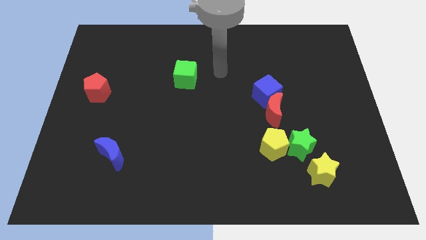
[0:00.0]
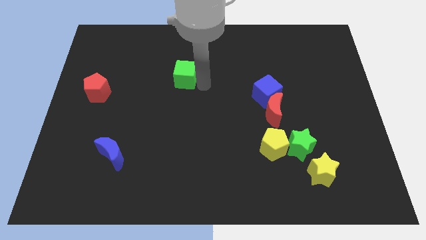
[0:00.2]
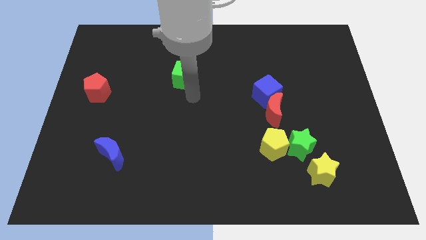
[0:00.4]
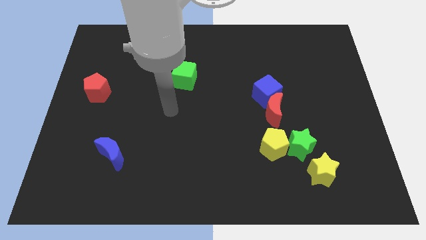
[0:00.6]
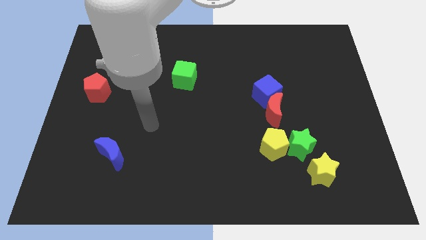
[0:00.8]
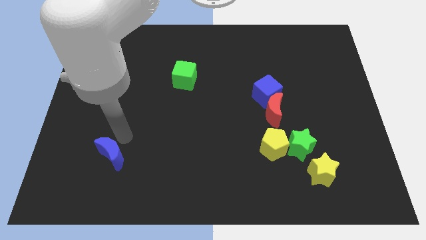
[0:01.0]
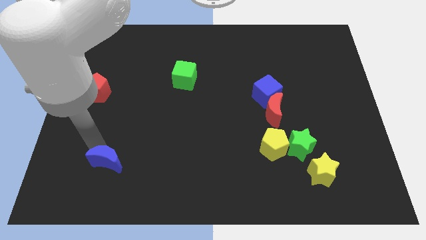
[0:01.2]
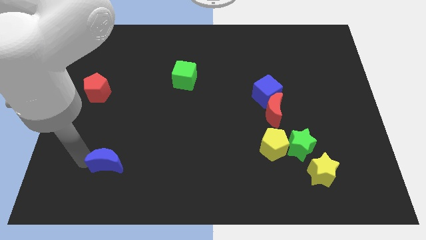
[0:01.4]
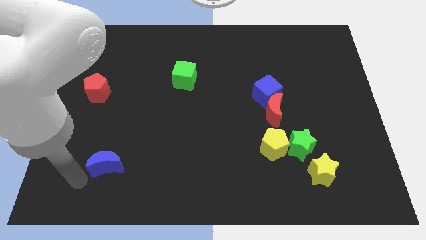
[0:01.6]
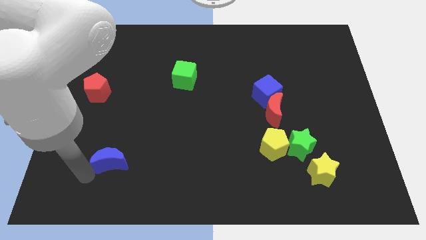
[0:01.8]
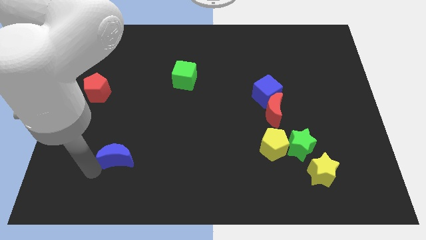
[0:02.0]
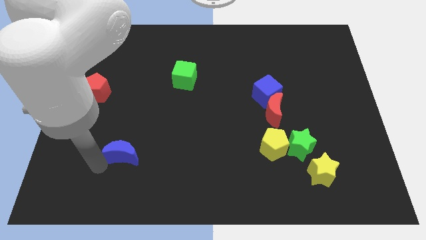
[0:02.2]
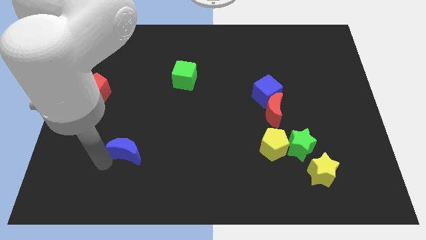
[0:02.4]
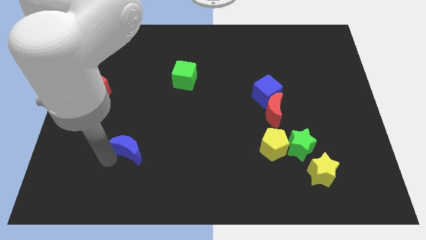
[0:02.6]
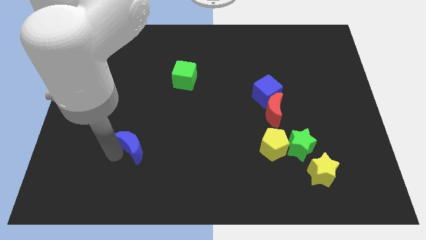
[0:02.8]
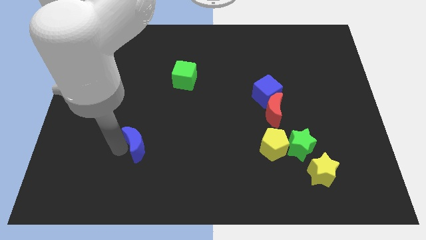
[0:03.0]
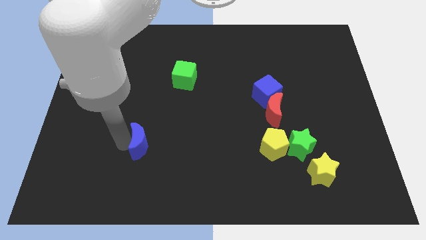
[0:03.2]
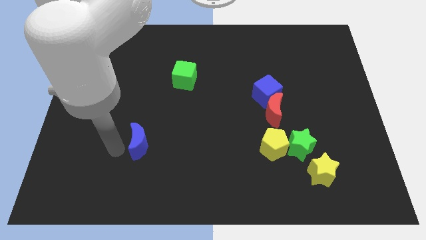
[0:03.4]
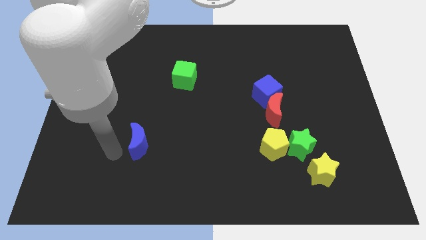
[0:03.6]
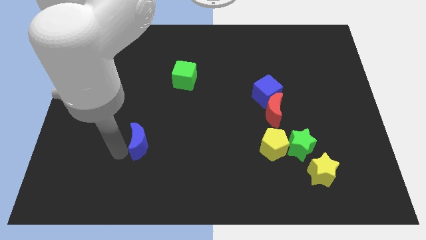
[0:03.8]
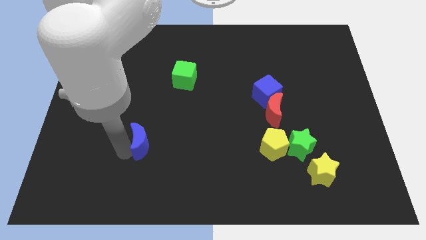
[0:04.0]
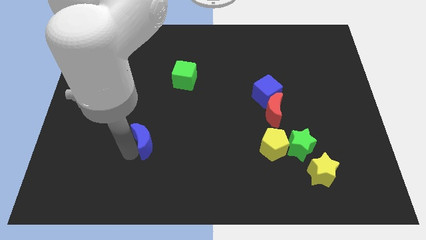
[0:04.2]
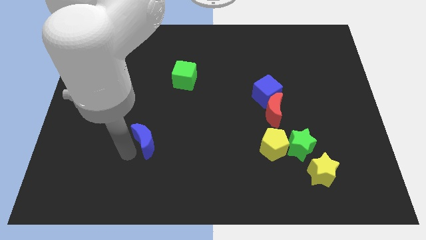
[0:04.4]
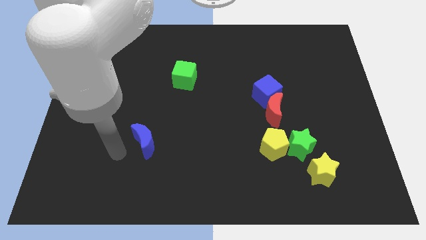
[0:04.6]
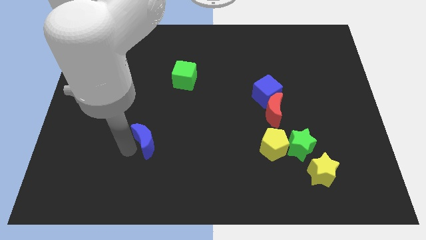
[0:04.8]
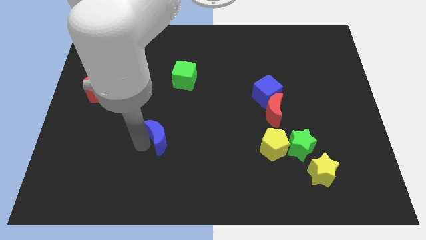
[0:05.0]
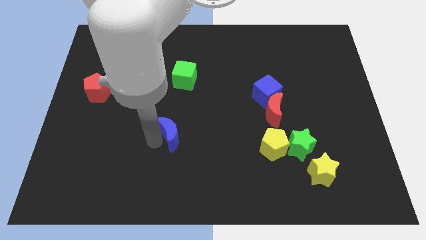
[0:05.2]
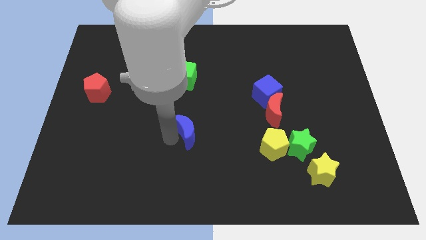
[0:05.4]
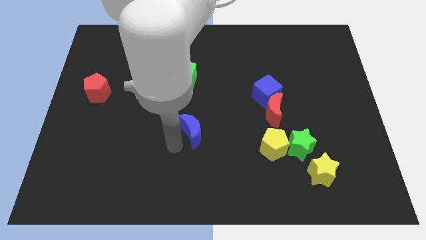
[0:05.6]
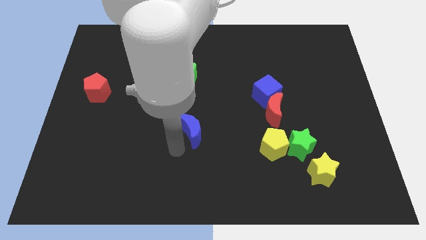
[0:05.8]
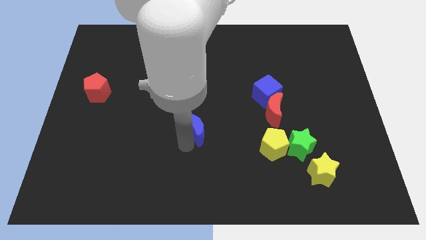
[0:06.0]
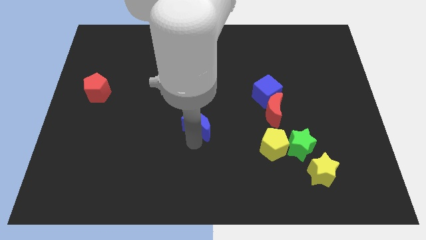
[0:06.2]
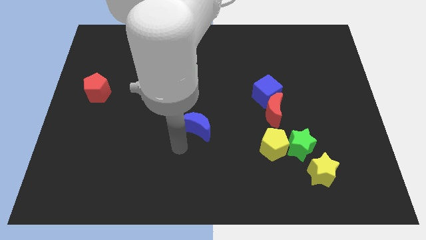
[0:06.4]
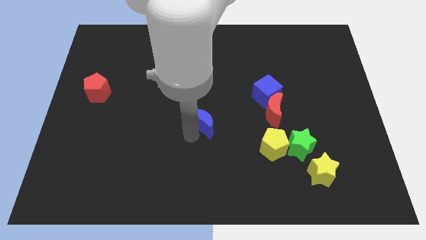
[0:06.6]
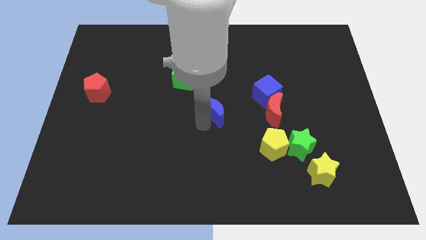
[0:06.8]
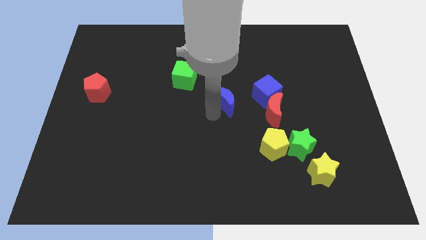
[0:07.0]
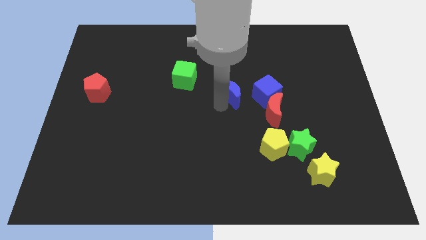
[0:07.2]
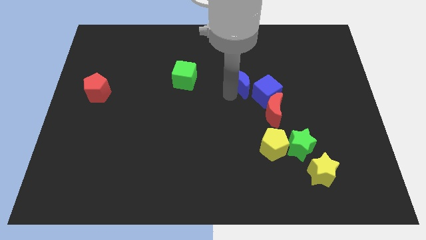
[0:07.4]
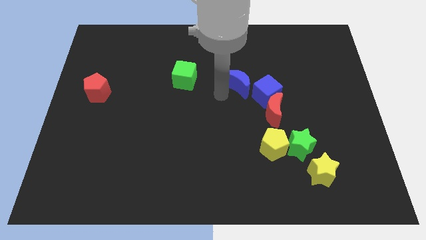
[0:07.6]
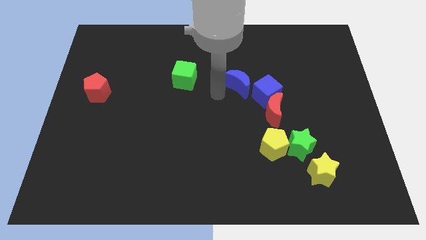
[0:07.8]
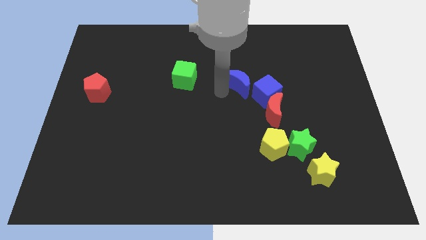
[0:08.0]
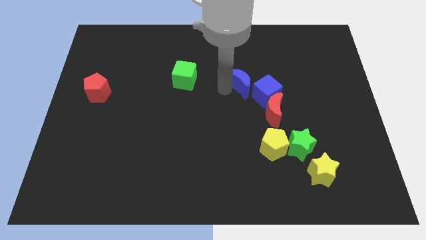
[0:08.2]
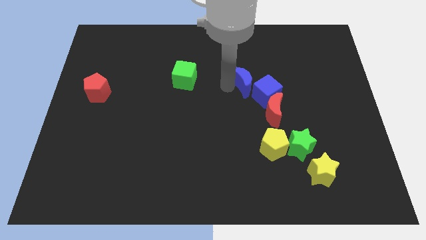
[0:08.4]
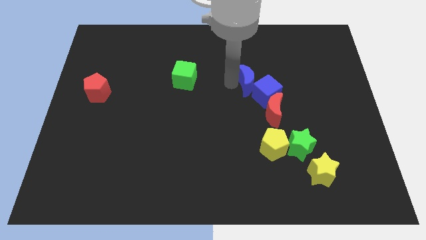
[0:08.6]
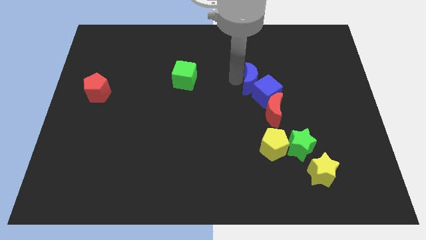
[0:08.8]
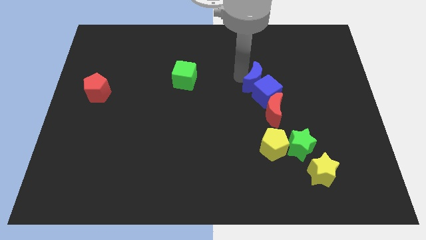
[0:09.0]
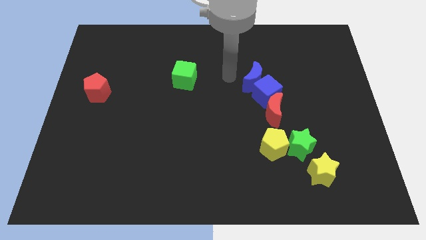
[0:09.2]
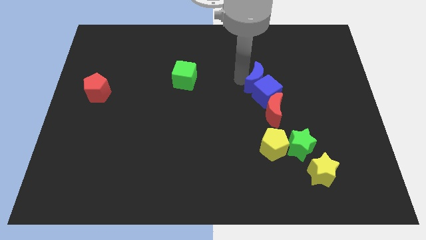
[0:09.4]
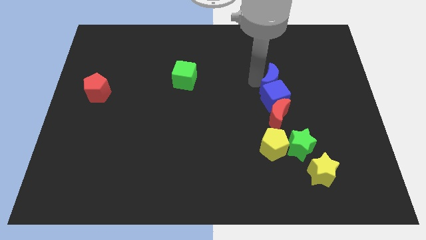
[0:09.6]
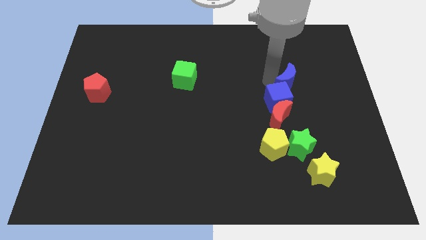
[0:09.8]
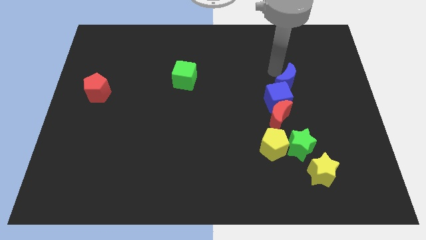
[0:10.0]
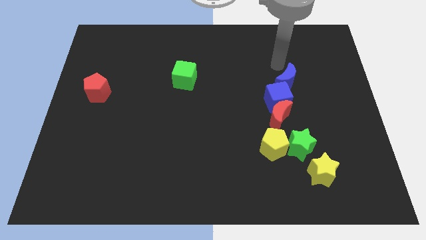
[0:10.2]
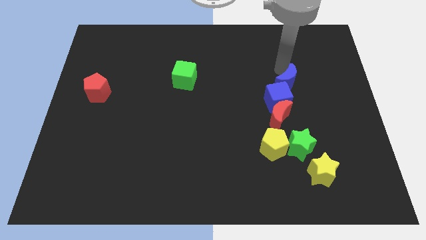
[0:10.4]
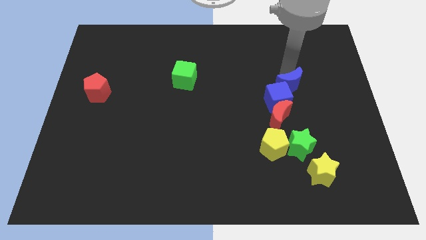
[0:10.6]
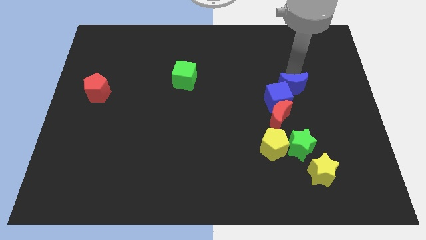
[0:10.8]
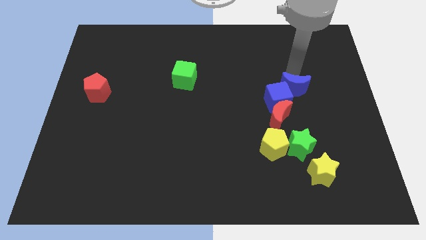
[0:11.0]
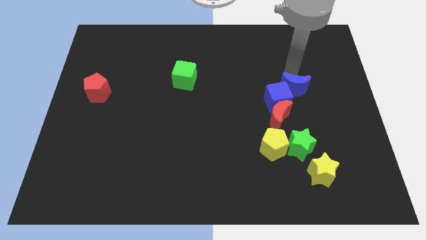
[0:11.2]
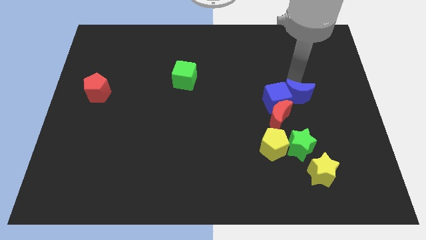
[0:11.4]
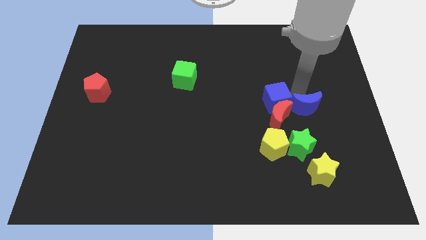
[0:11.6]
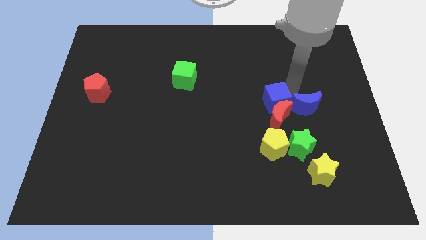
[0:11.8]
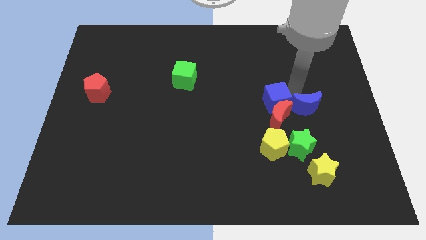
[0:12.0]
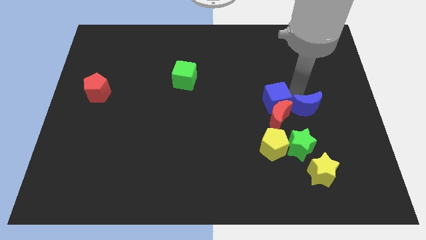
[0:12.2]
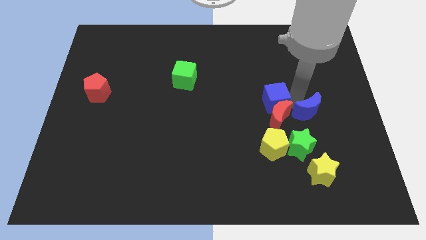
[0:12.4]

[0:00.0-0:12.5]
move the blue moon to the top right side of the green star

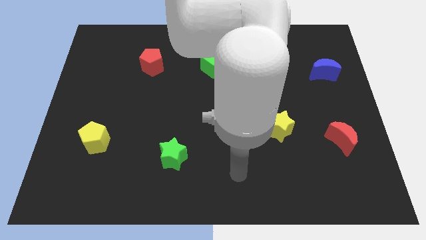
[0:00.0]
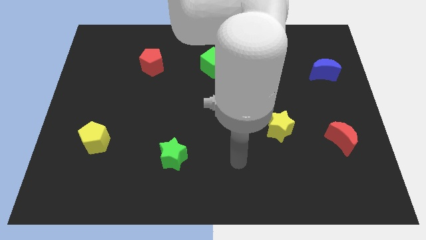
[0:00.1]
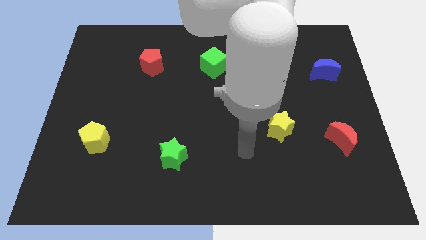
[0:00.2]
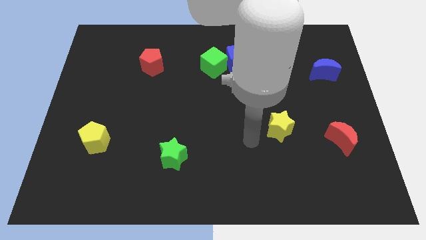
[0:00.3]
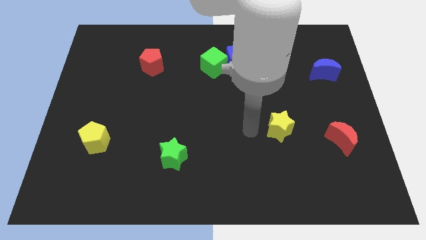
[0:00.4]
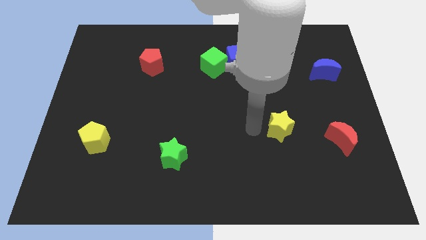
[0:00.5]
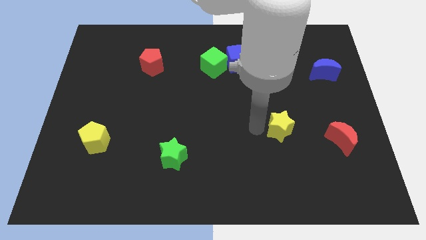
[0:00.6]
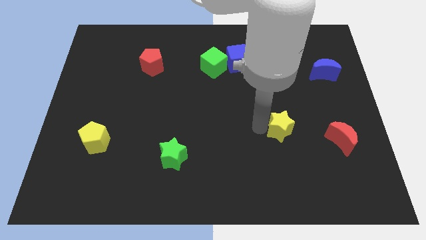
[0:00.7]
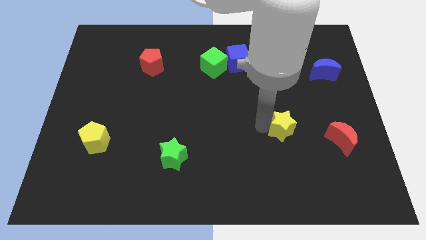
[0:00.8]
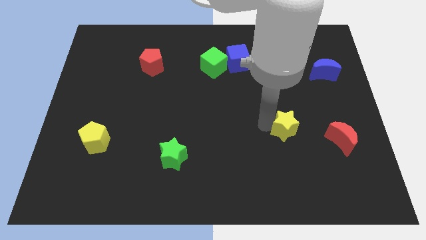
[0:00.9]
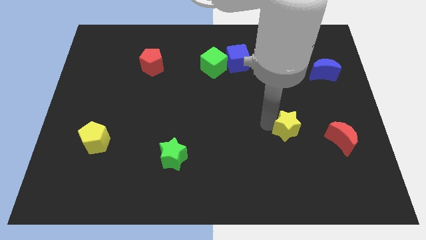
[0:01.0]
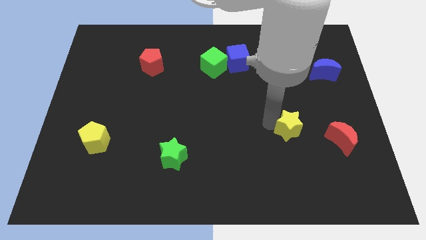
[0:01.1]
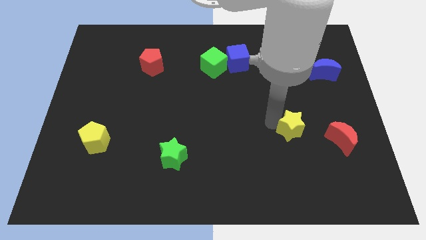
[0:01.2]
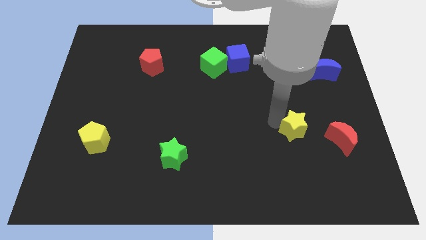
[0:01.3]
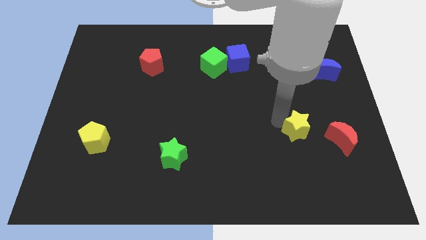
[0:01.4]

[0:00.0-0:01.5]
push the yellow star to the top left of the red moon

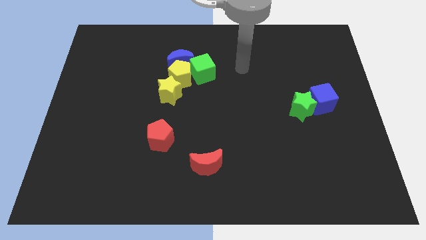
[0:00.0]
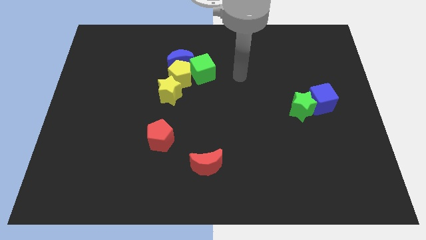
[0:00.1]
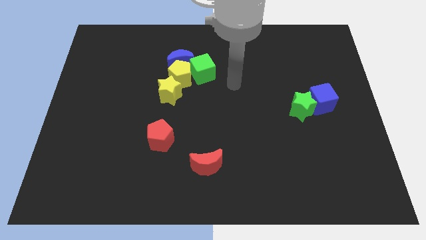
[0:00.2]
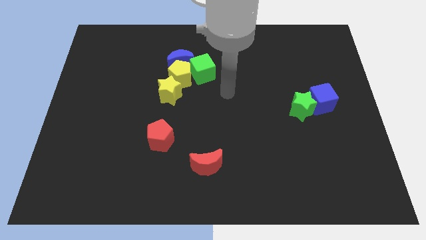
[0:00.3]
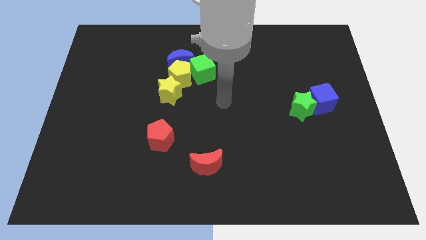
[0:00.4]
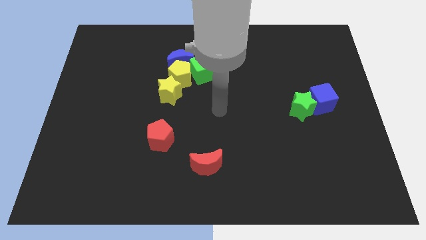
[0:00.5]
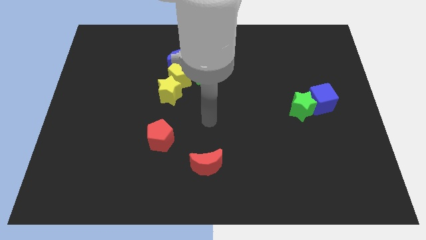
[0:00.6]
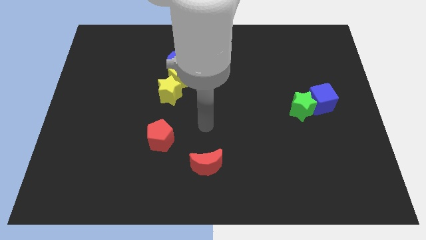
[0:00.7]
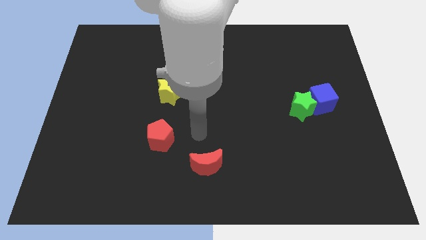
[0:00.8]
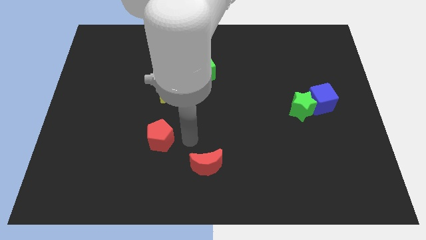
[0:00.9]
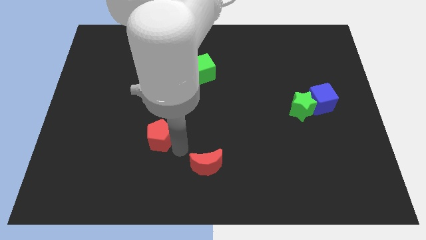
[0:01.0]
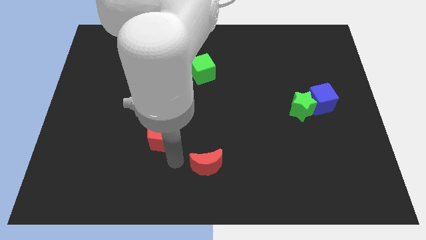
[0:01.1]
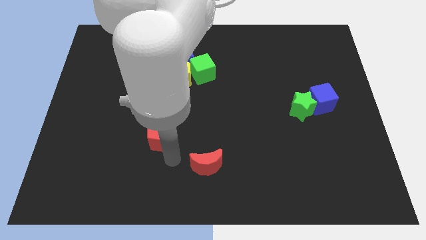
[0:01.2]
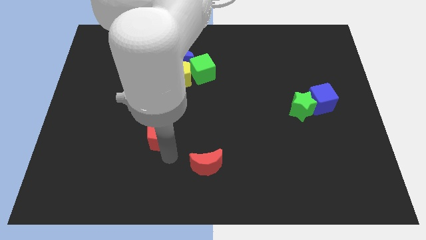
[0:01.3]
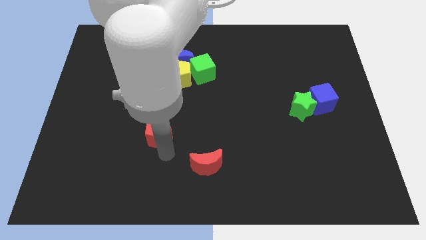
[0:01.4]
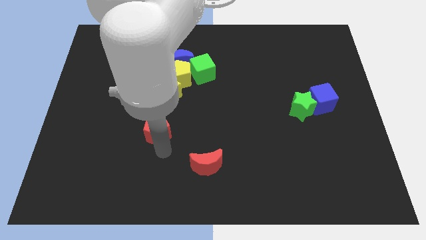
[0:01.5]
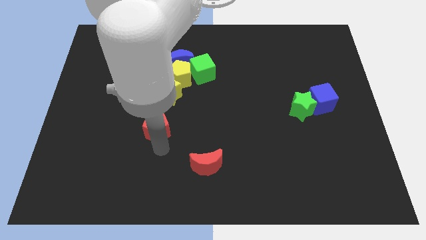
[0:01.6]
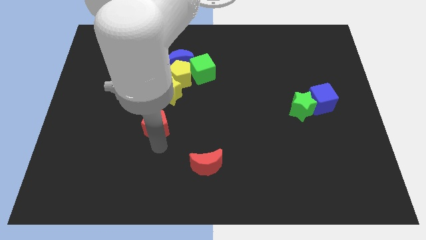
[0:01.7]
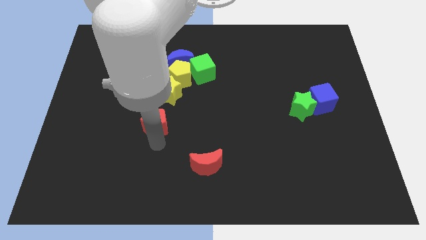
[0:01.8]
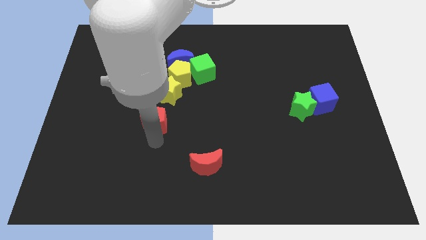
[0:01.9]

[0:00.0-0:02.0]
push the red pentagon diagonally down and to the left of the yellow star
